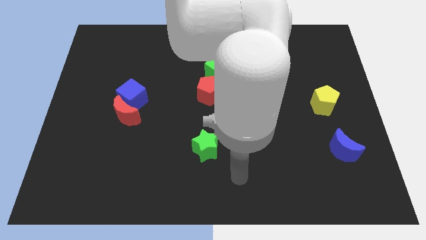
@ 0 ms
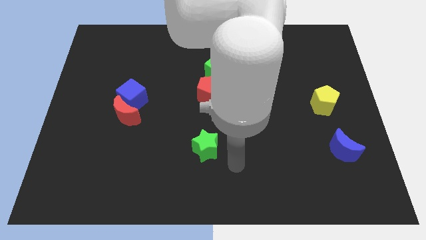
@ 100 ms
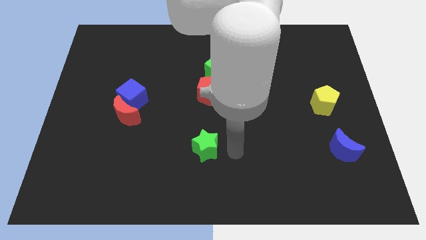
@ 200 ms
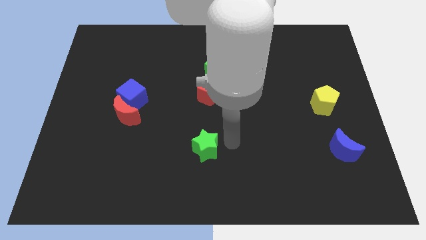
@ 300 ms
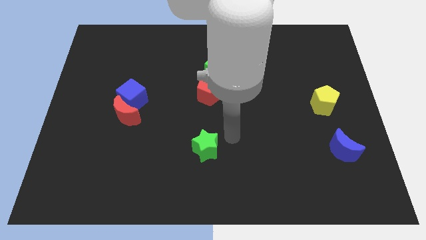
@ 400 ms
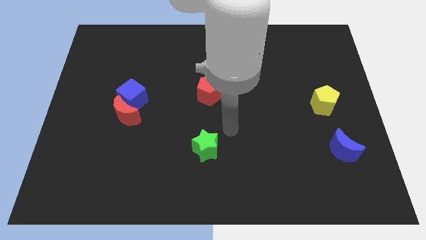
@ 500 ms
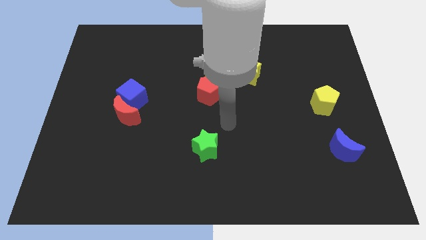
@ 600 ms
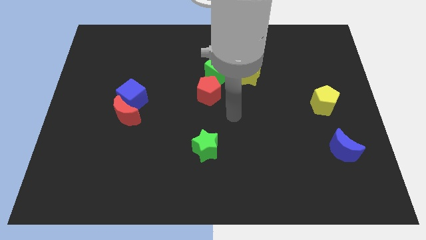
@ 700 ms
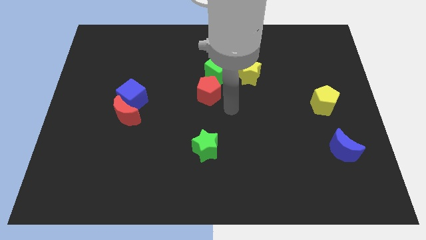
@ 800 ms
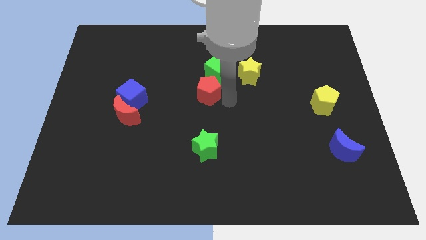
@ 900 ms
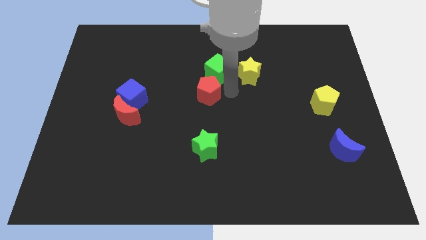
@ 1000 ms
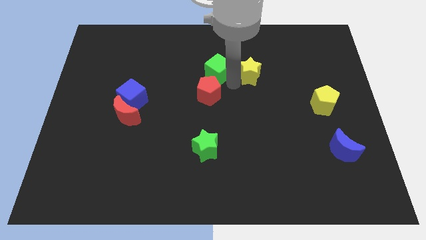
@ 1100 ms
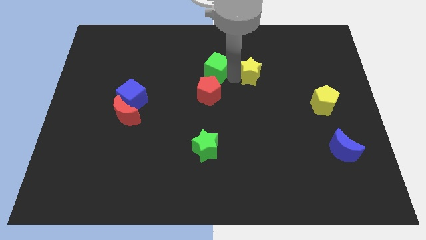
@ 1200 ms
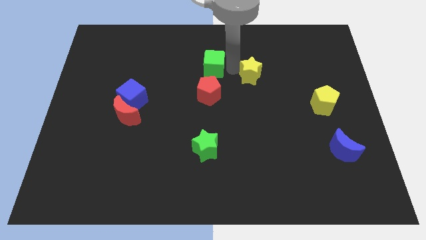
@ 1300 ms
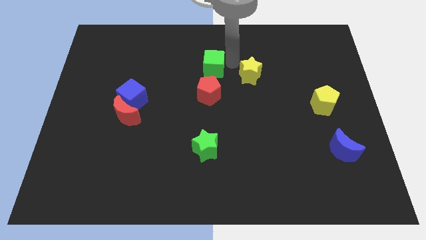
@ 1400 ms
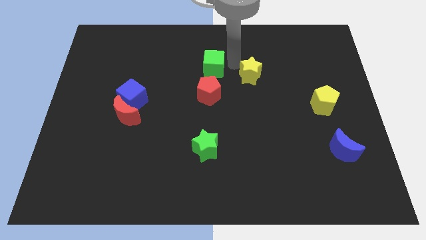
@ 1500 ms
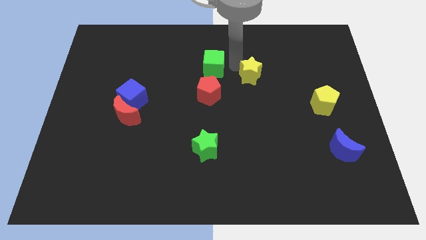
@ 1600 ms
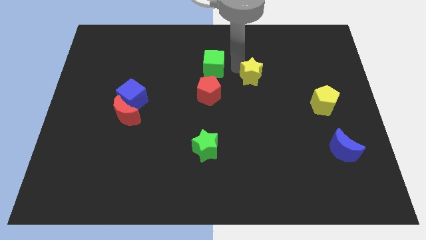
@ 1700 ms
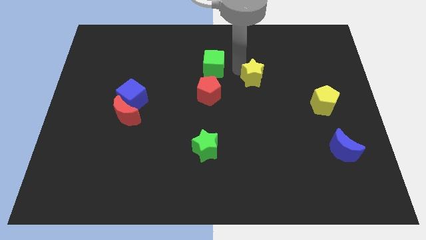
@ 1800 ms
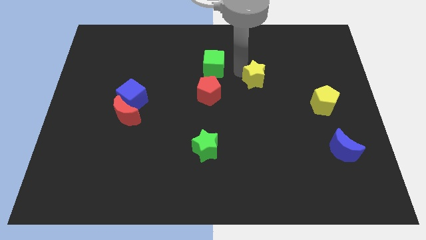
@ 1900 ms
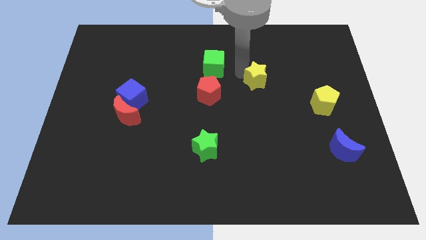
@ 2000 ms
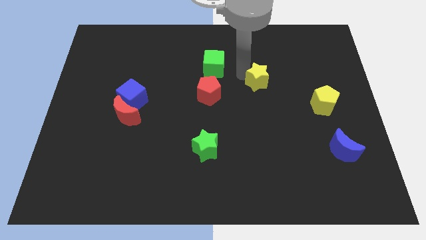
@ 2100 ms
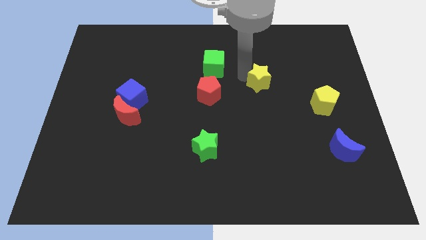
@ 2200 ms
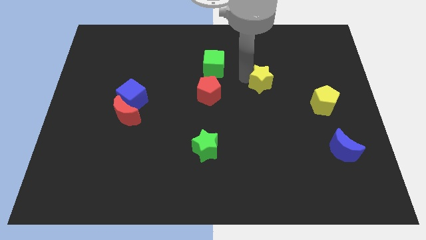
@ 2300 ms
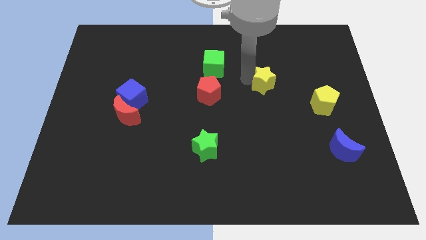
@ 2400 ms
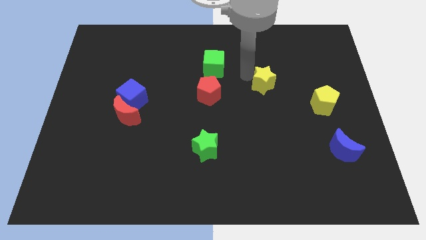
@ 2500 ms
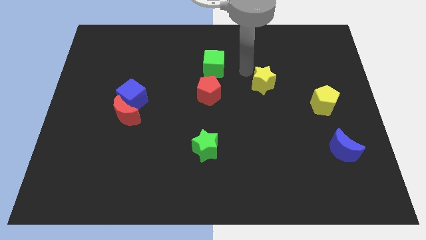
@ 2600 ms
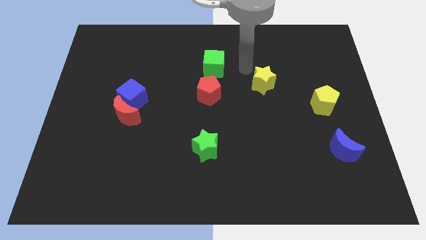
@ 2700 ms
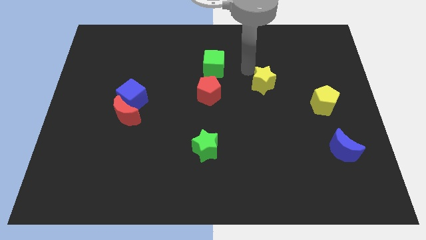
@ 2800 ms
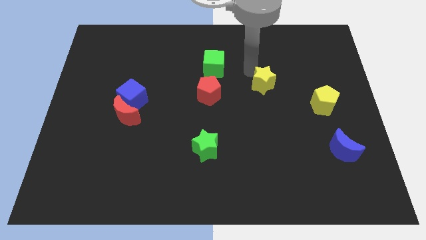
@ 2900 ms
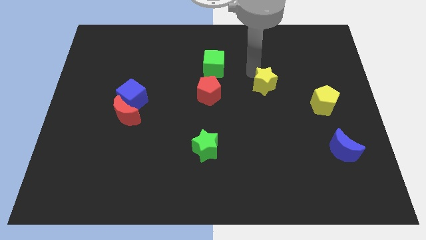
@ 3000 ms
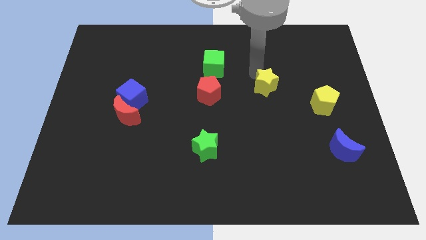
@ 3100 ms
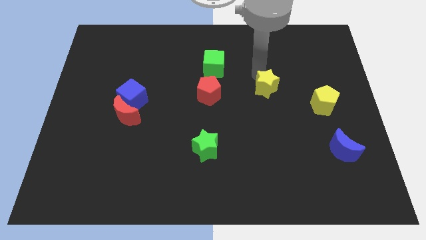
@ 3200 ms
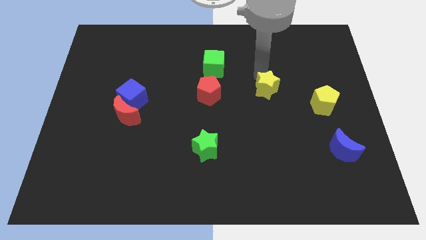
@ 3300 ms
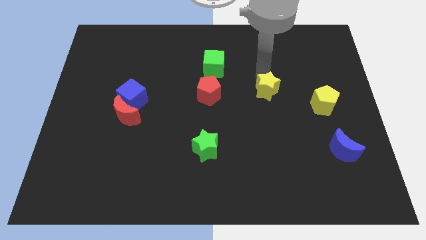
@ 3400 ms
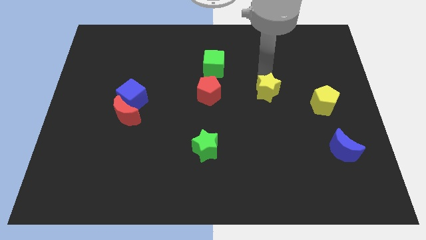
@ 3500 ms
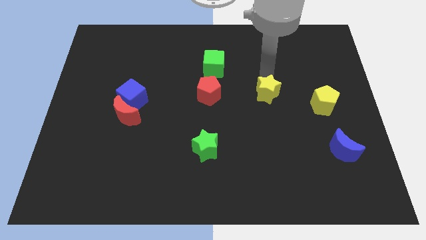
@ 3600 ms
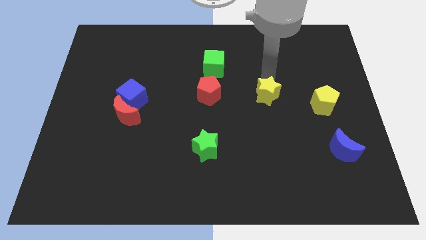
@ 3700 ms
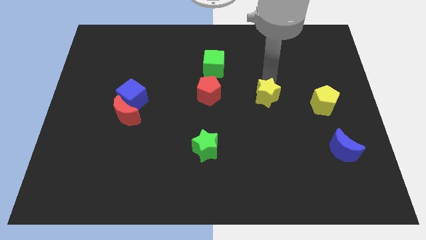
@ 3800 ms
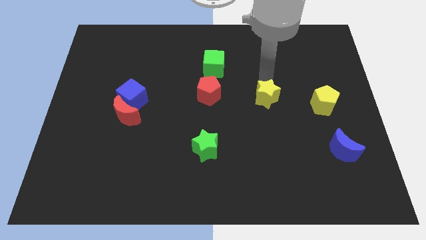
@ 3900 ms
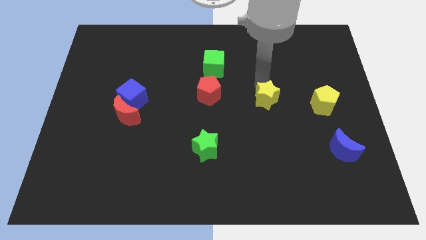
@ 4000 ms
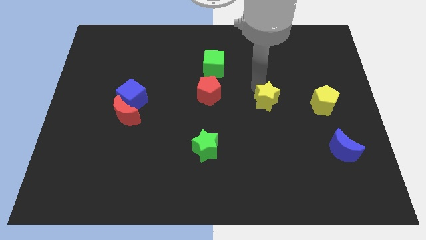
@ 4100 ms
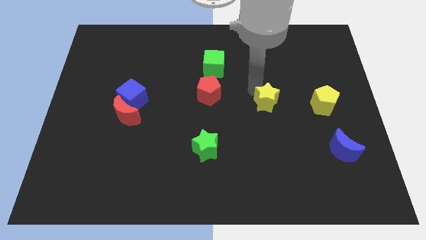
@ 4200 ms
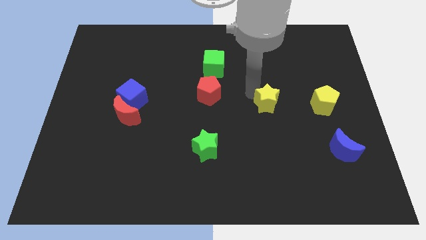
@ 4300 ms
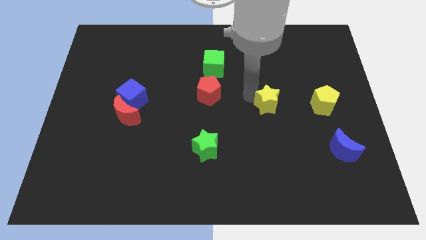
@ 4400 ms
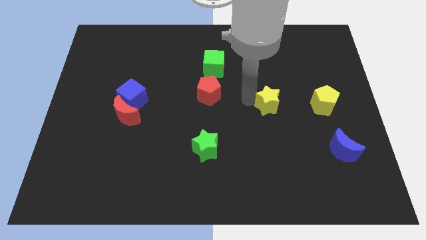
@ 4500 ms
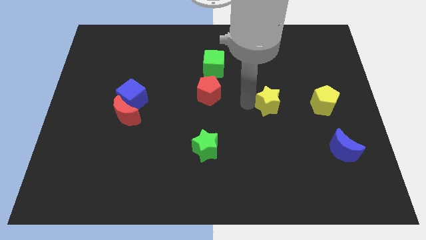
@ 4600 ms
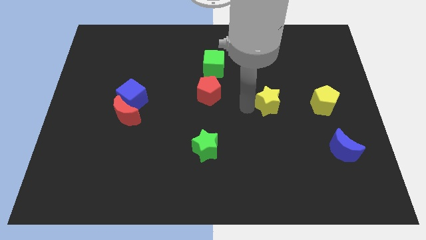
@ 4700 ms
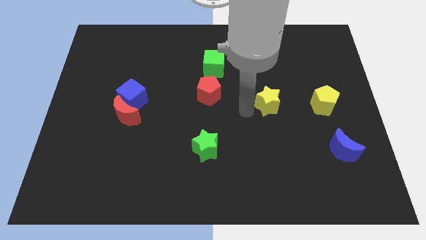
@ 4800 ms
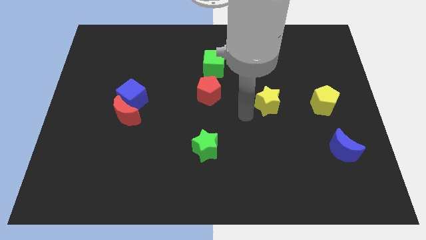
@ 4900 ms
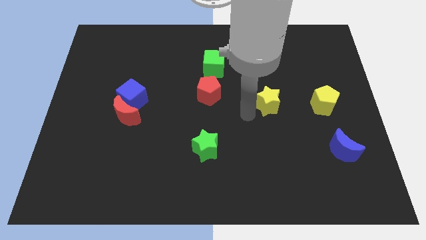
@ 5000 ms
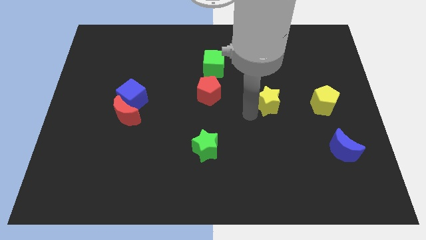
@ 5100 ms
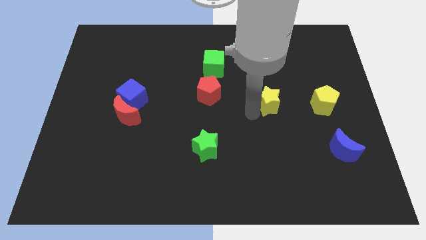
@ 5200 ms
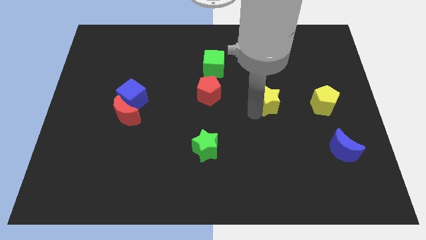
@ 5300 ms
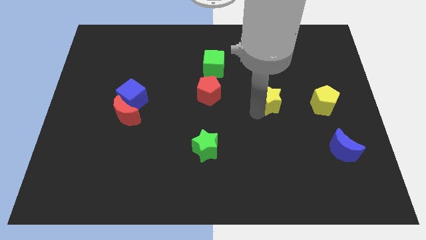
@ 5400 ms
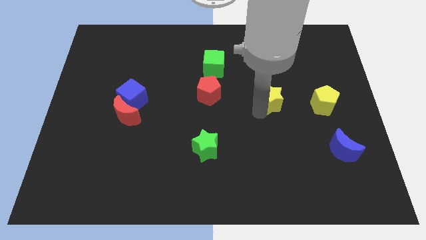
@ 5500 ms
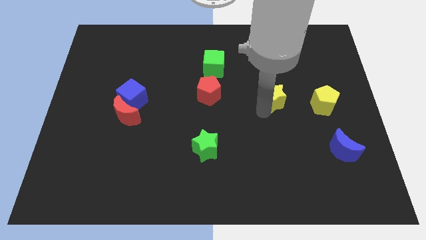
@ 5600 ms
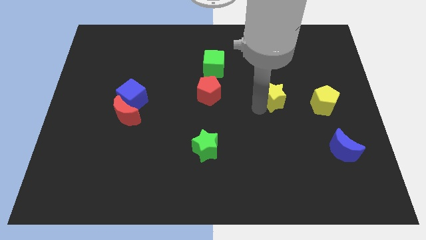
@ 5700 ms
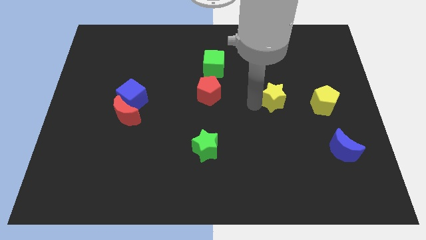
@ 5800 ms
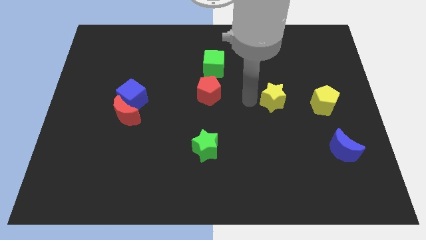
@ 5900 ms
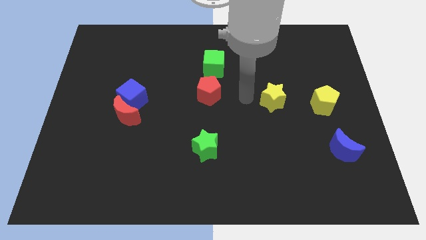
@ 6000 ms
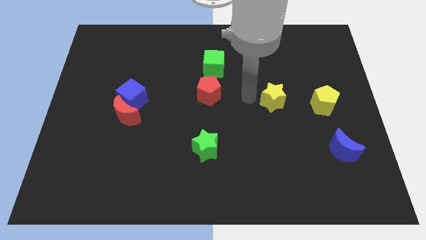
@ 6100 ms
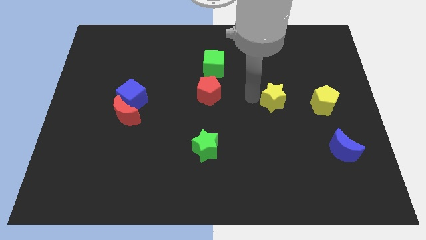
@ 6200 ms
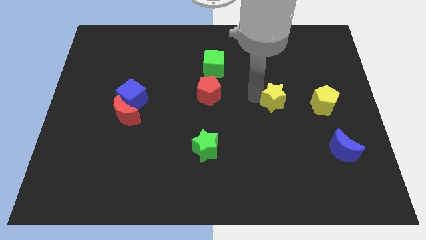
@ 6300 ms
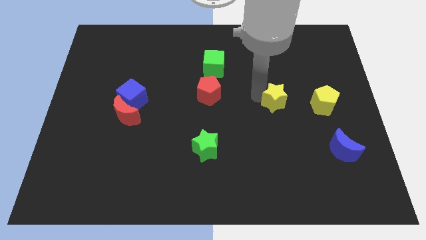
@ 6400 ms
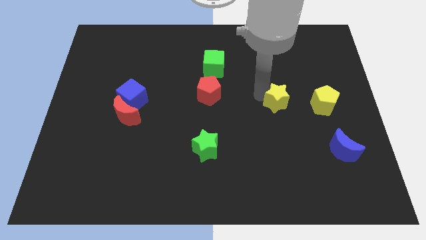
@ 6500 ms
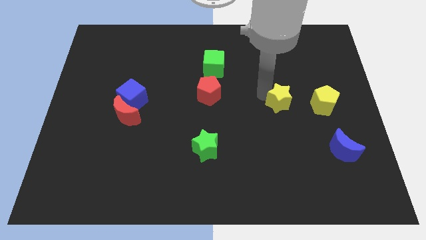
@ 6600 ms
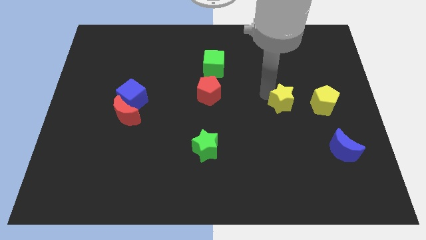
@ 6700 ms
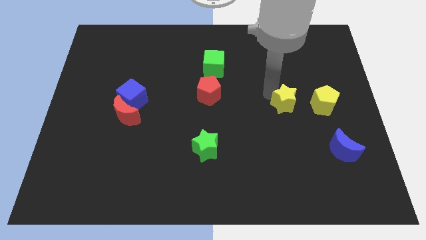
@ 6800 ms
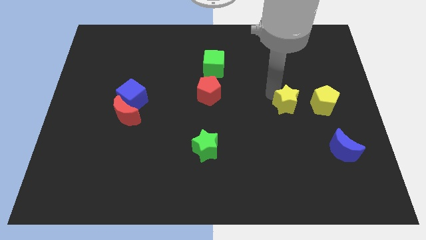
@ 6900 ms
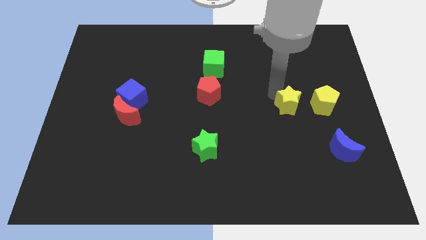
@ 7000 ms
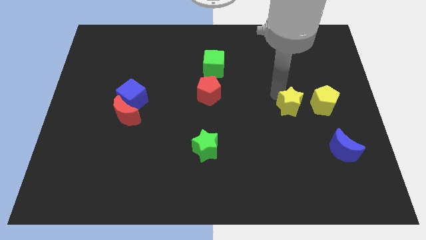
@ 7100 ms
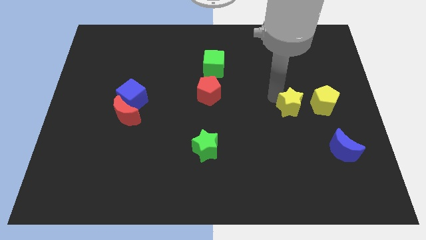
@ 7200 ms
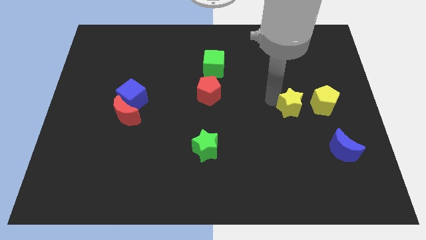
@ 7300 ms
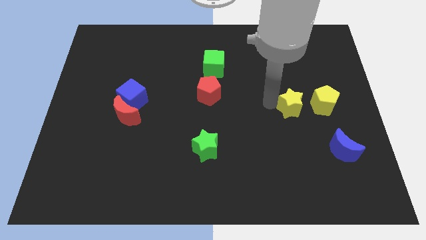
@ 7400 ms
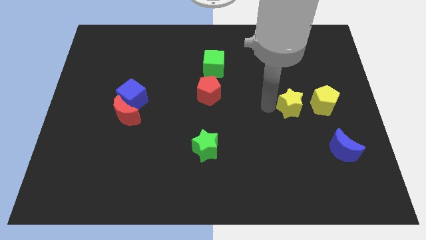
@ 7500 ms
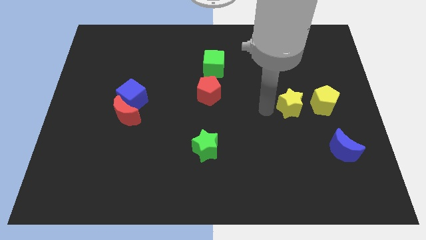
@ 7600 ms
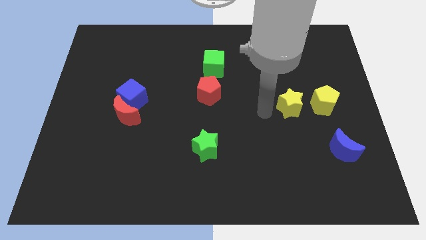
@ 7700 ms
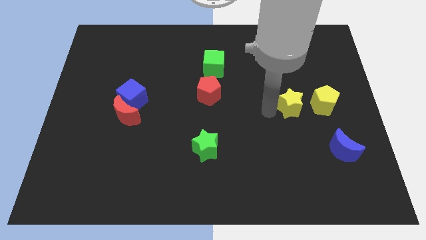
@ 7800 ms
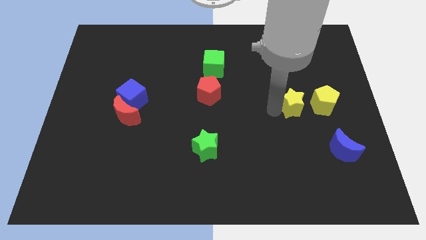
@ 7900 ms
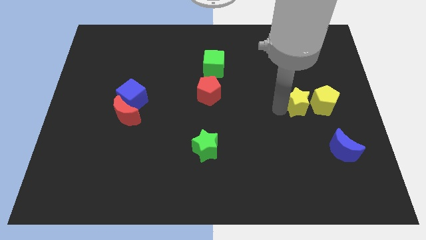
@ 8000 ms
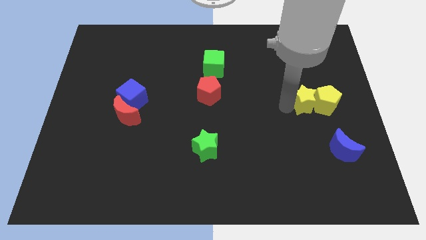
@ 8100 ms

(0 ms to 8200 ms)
push the yellow star to the yellow pentagon
